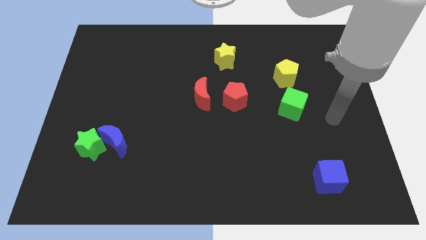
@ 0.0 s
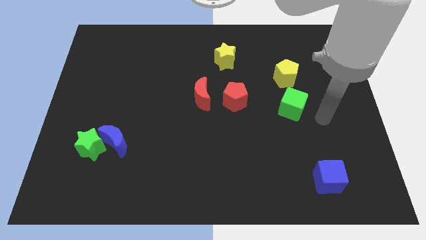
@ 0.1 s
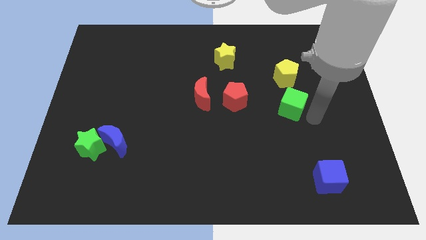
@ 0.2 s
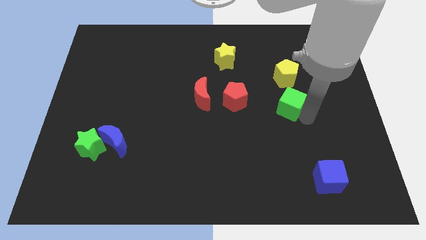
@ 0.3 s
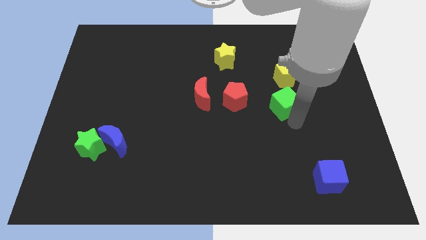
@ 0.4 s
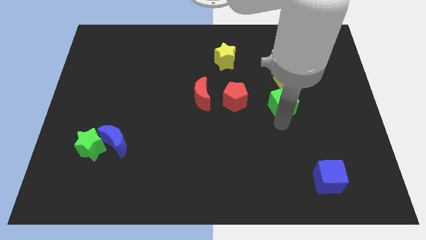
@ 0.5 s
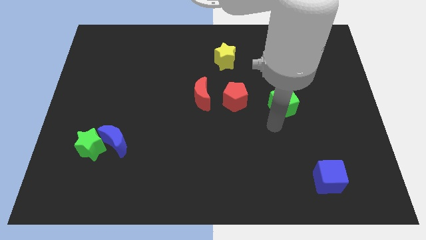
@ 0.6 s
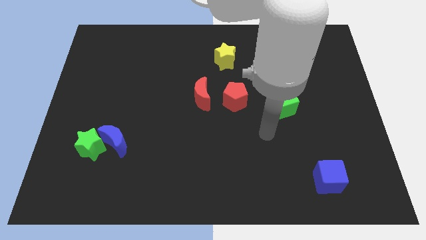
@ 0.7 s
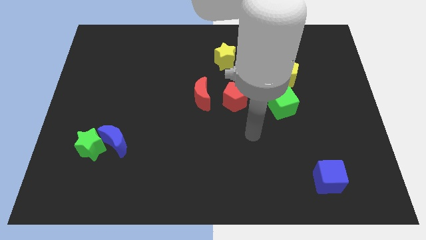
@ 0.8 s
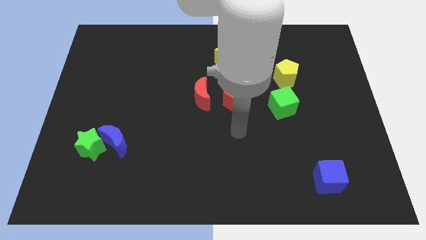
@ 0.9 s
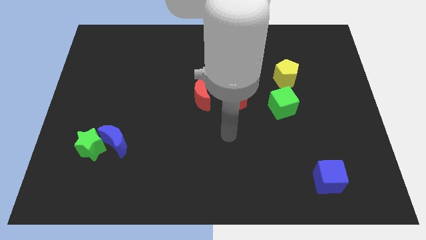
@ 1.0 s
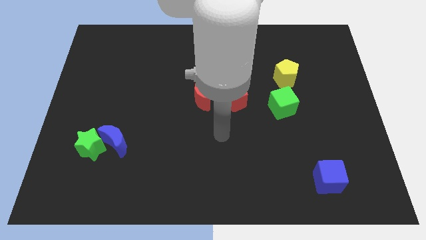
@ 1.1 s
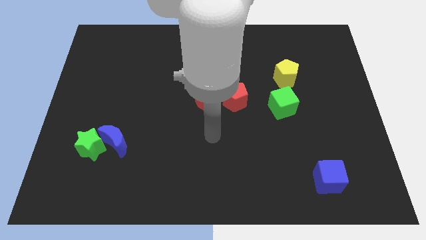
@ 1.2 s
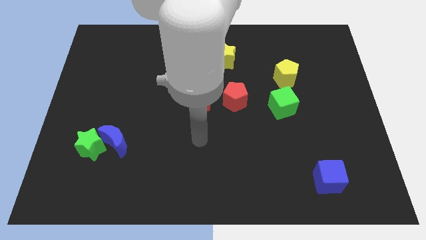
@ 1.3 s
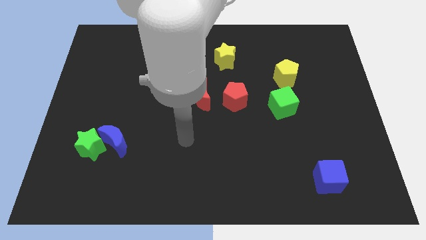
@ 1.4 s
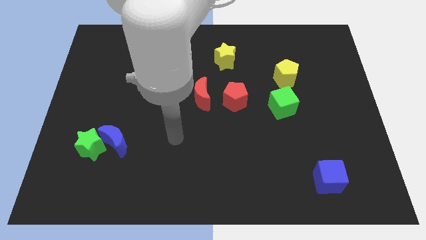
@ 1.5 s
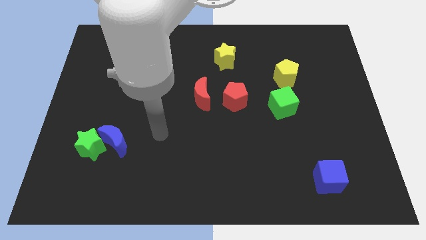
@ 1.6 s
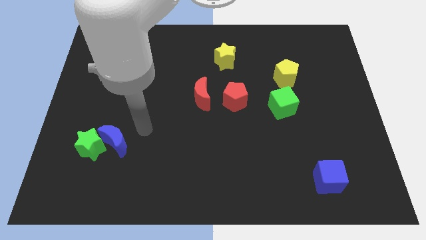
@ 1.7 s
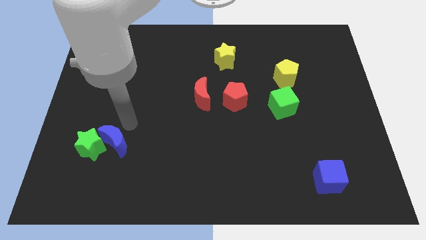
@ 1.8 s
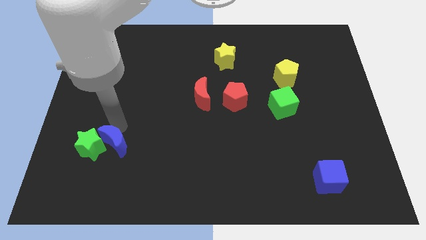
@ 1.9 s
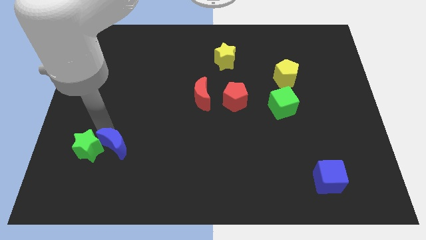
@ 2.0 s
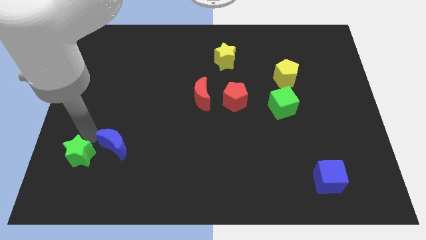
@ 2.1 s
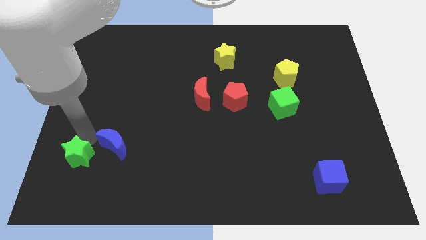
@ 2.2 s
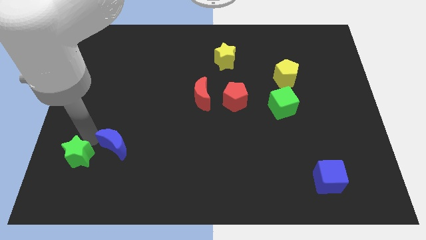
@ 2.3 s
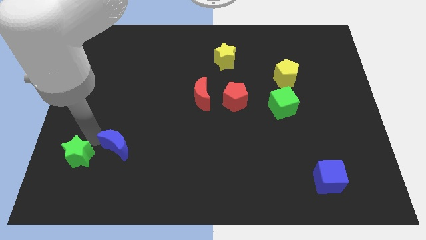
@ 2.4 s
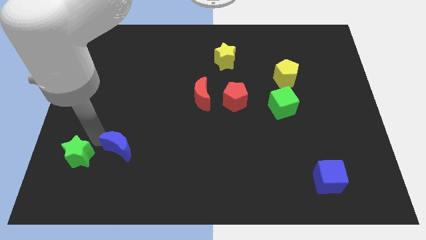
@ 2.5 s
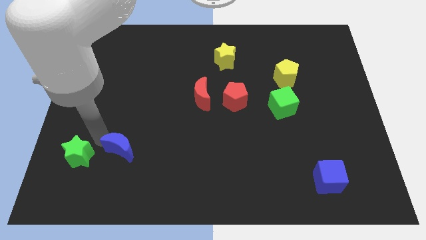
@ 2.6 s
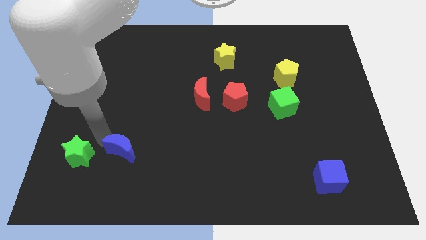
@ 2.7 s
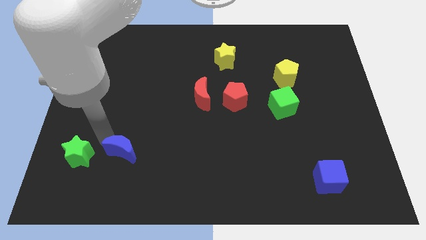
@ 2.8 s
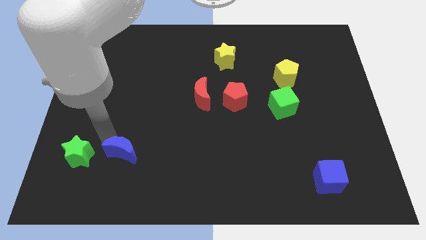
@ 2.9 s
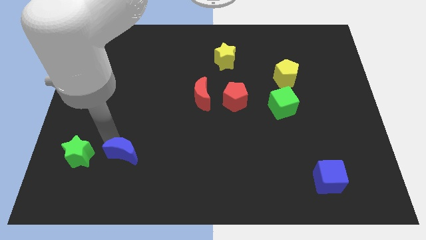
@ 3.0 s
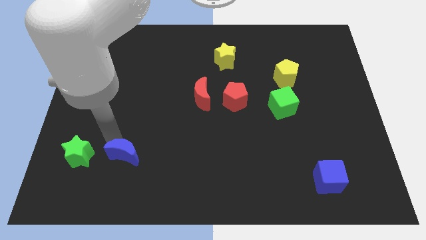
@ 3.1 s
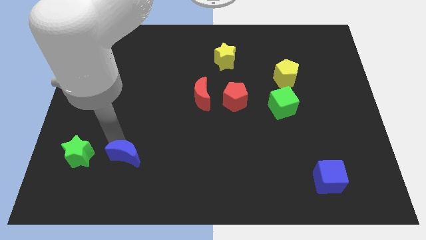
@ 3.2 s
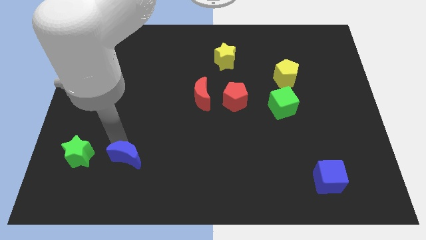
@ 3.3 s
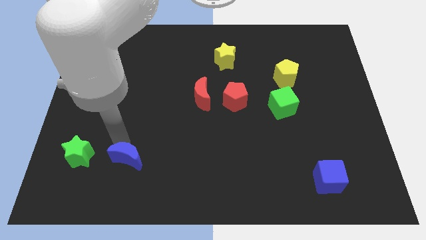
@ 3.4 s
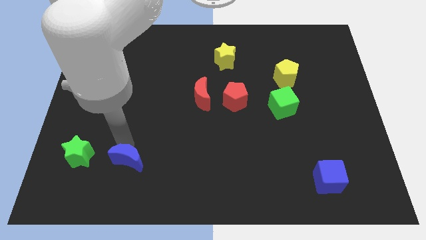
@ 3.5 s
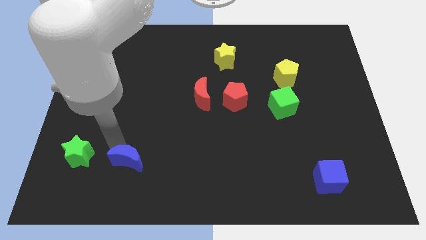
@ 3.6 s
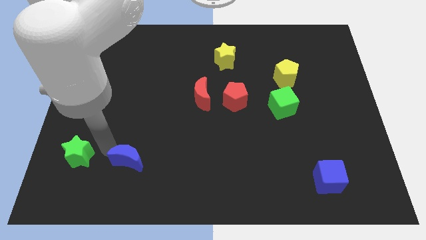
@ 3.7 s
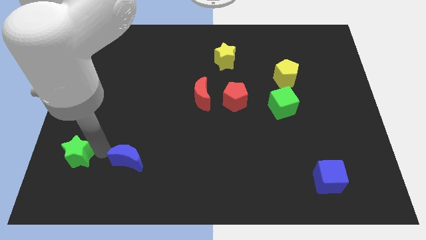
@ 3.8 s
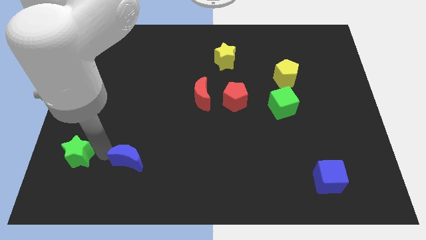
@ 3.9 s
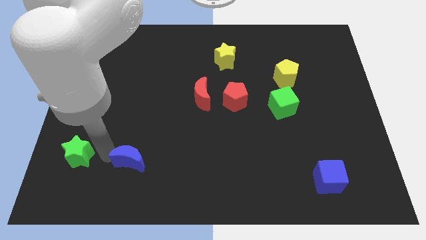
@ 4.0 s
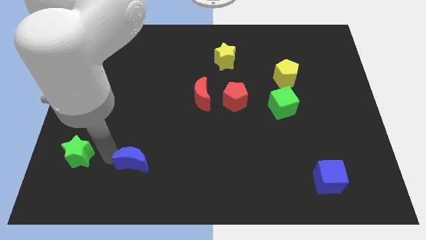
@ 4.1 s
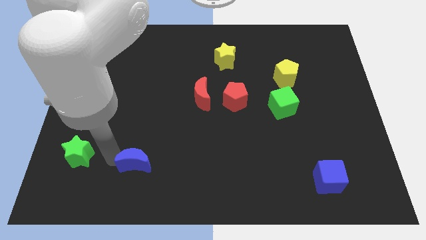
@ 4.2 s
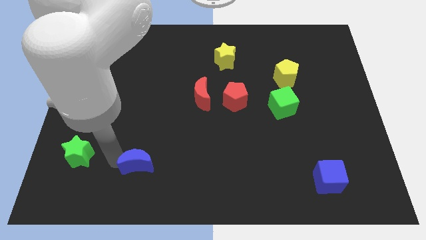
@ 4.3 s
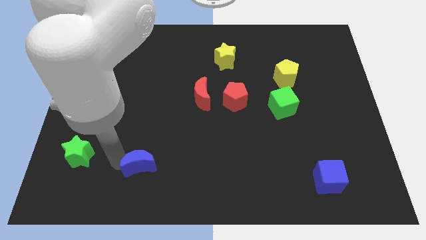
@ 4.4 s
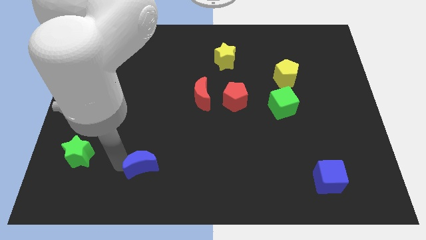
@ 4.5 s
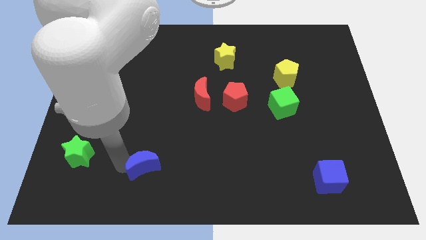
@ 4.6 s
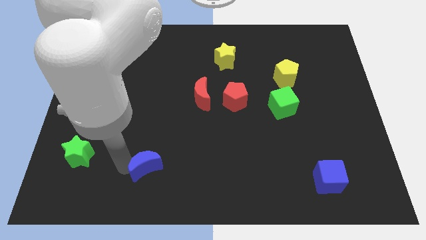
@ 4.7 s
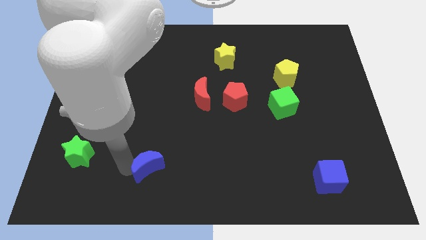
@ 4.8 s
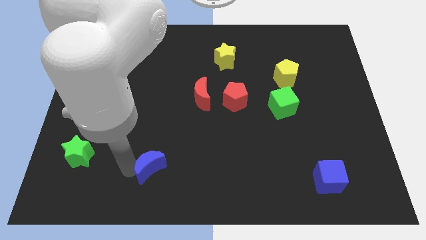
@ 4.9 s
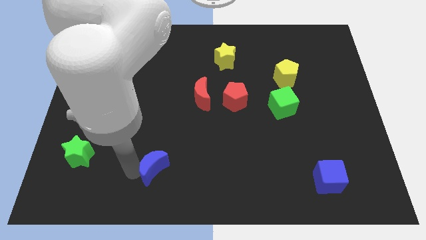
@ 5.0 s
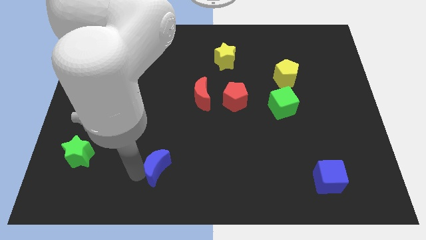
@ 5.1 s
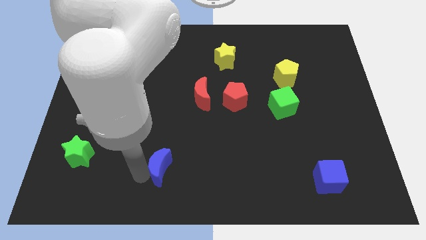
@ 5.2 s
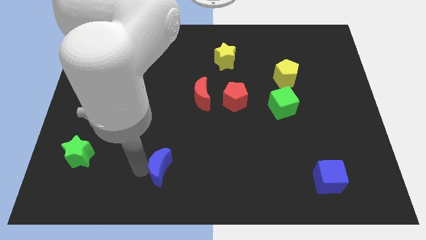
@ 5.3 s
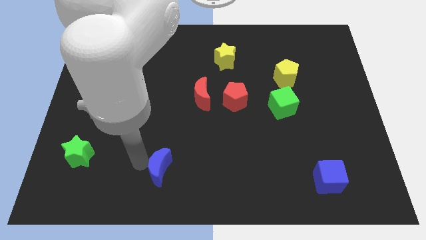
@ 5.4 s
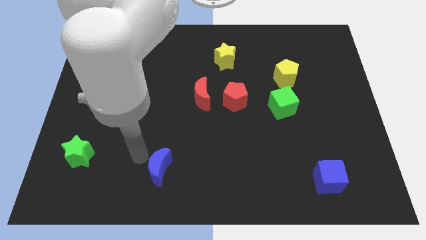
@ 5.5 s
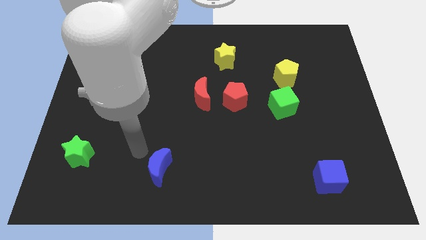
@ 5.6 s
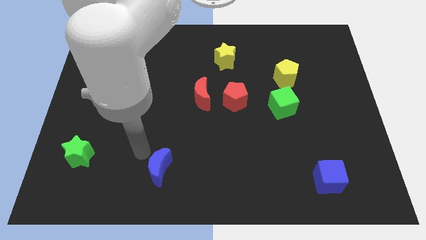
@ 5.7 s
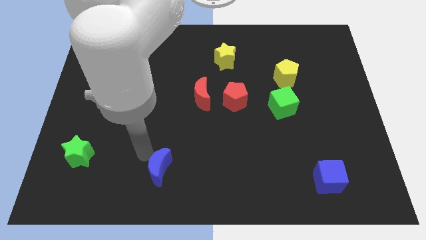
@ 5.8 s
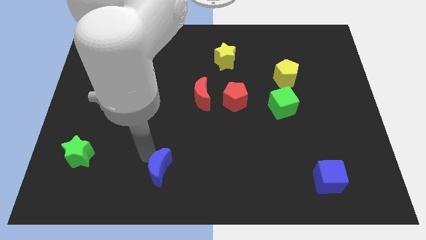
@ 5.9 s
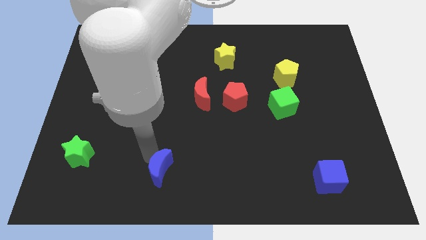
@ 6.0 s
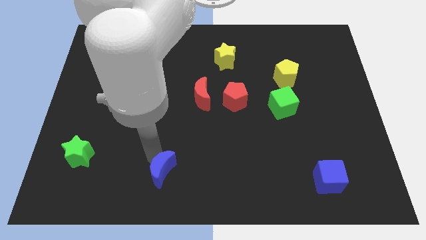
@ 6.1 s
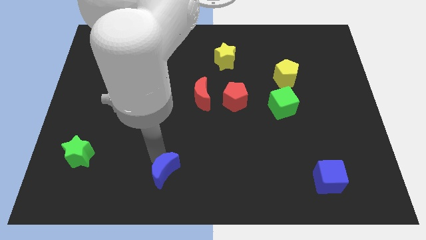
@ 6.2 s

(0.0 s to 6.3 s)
push the blue moon to the bottom

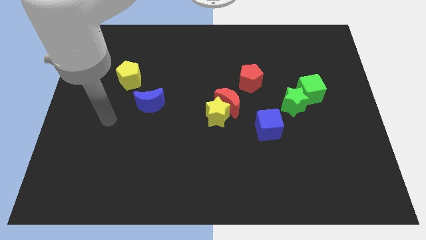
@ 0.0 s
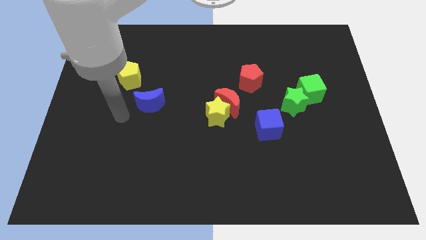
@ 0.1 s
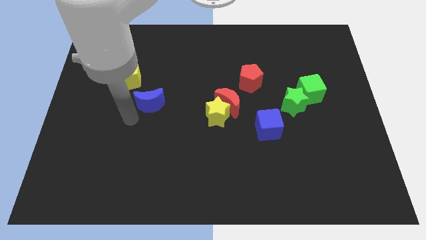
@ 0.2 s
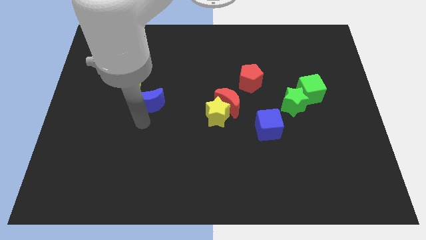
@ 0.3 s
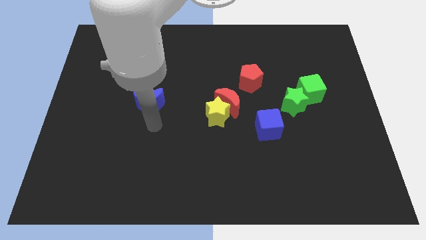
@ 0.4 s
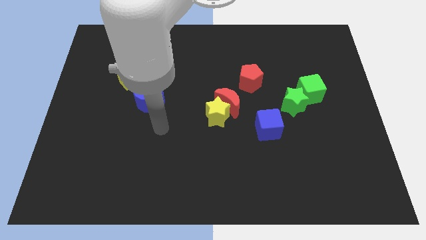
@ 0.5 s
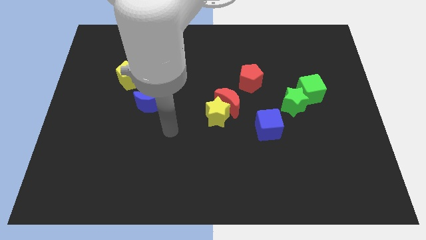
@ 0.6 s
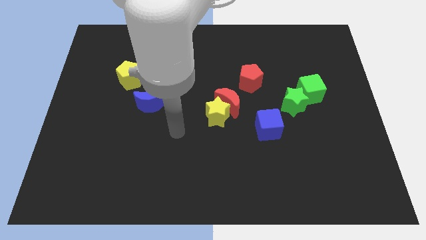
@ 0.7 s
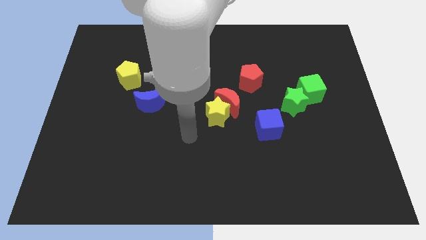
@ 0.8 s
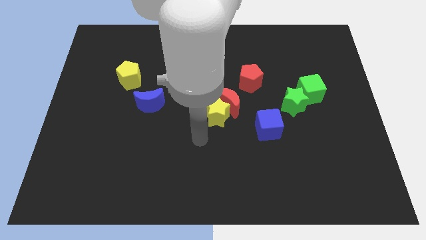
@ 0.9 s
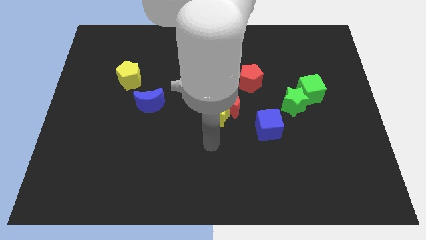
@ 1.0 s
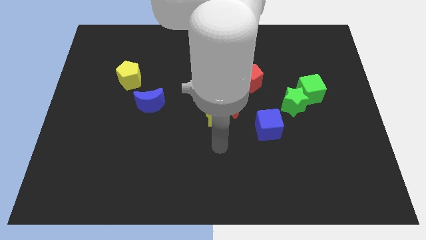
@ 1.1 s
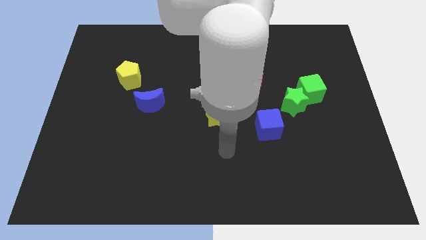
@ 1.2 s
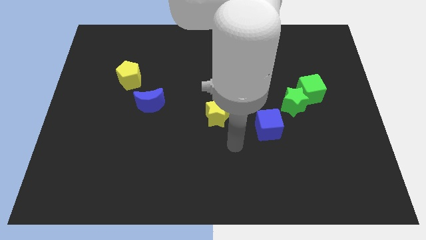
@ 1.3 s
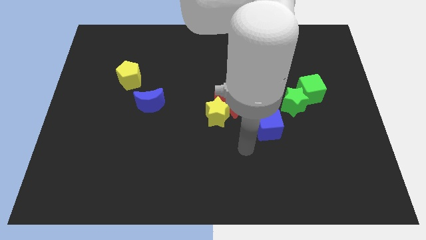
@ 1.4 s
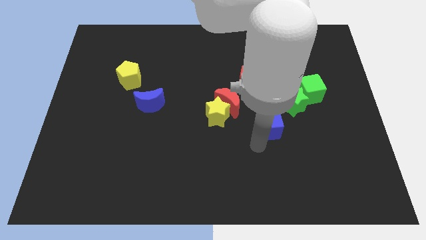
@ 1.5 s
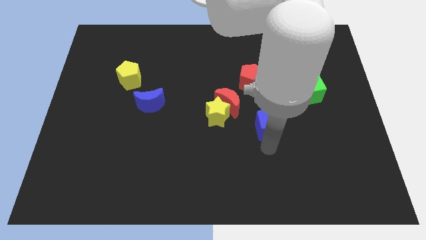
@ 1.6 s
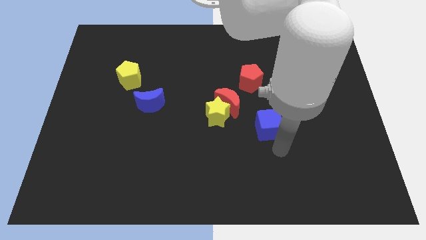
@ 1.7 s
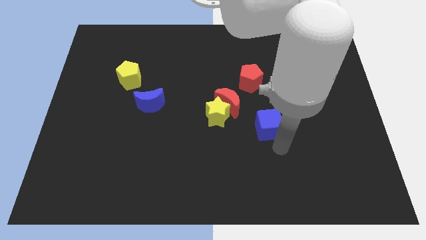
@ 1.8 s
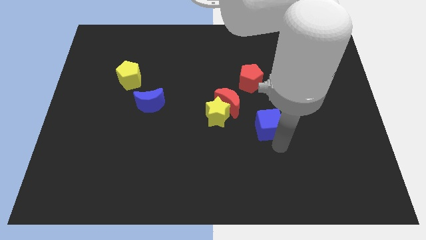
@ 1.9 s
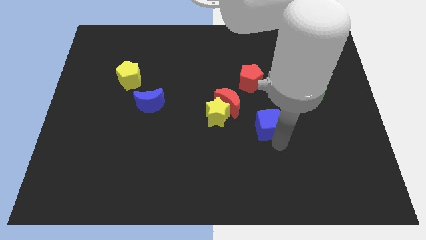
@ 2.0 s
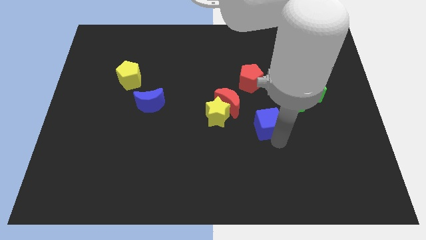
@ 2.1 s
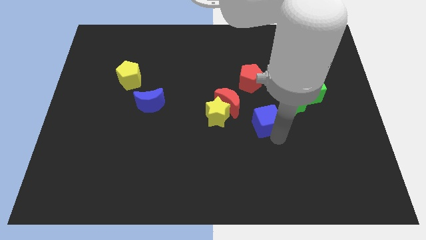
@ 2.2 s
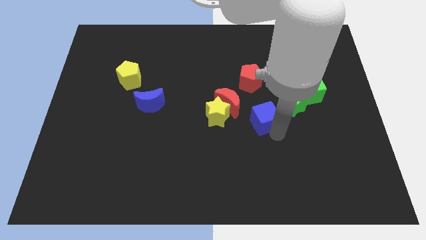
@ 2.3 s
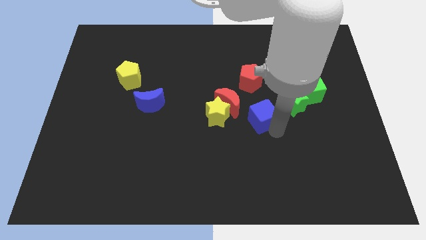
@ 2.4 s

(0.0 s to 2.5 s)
move the blue cube to the middle of the board
